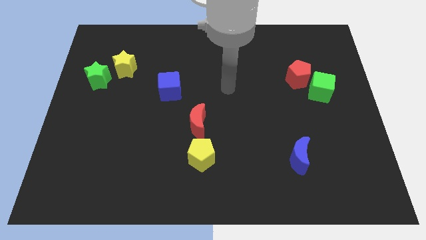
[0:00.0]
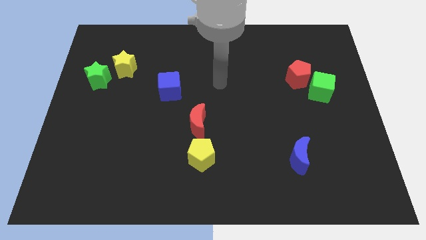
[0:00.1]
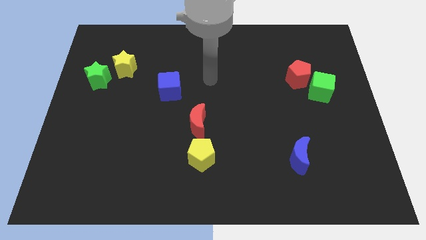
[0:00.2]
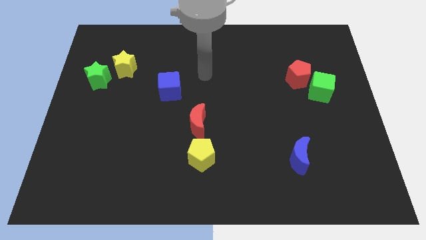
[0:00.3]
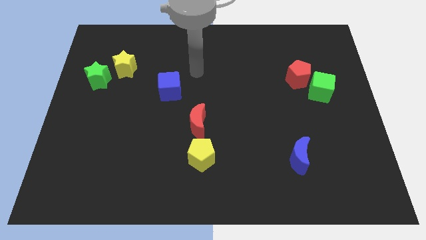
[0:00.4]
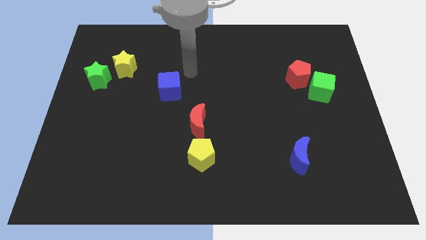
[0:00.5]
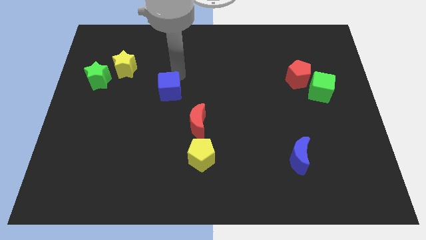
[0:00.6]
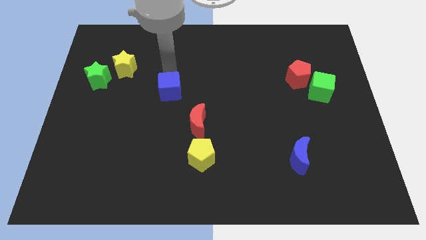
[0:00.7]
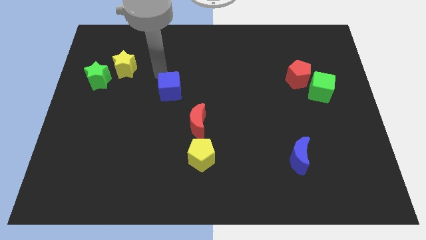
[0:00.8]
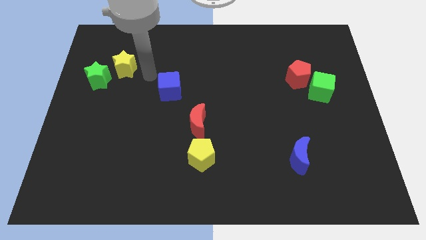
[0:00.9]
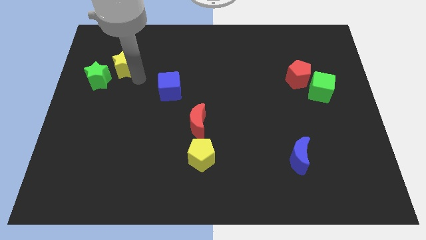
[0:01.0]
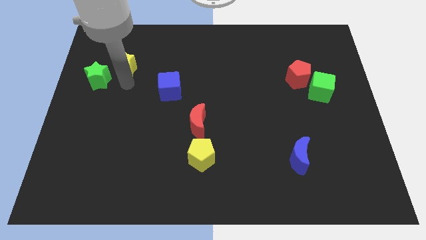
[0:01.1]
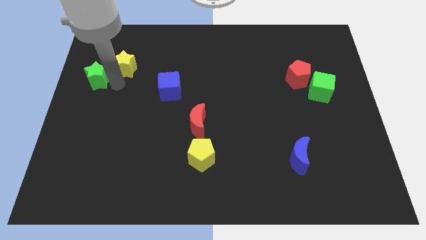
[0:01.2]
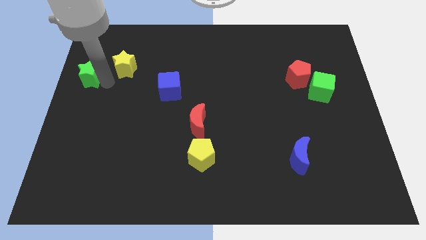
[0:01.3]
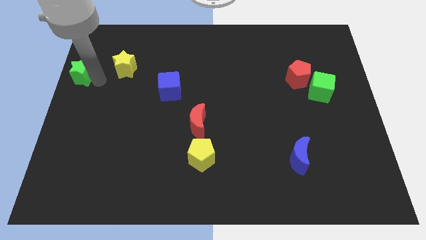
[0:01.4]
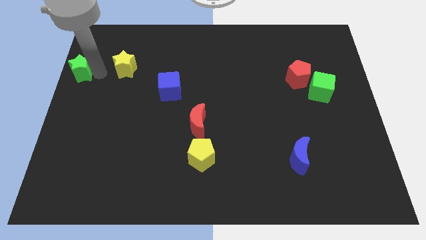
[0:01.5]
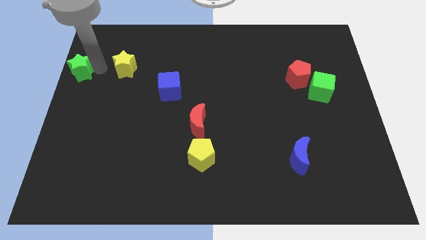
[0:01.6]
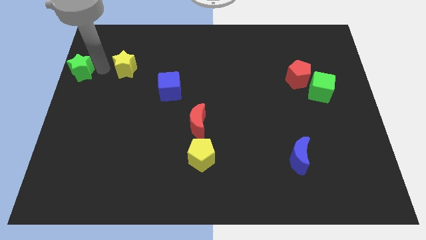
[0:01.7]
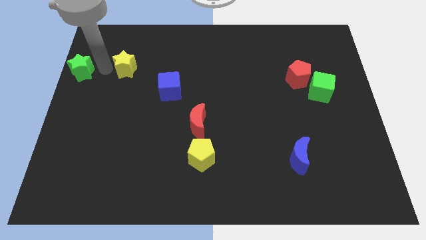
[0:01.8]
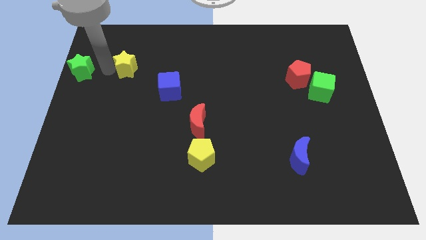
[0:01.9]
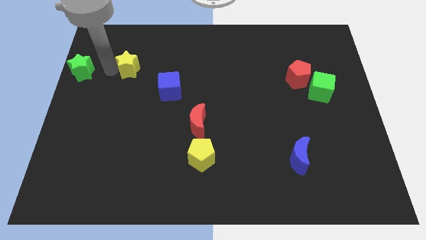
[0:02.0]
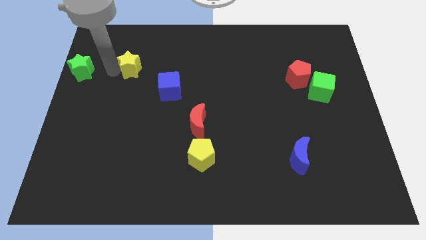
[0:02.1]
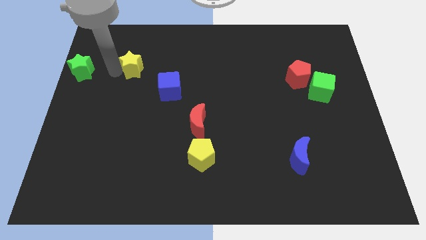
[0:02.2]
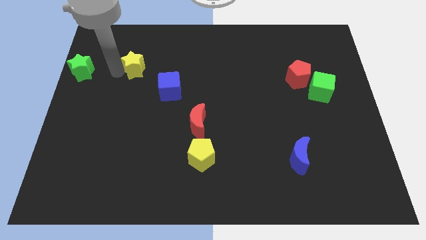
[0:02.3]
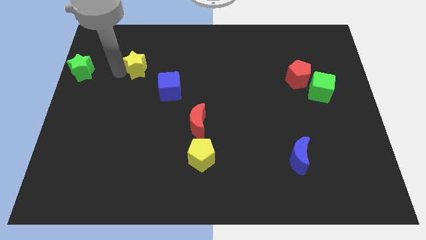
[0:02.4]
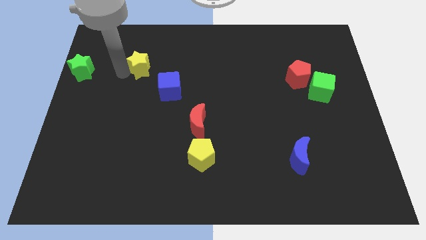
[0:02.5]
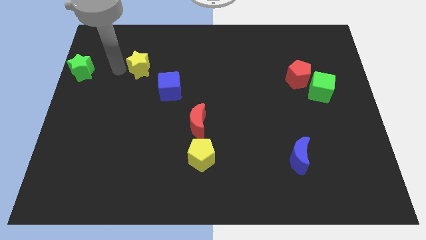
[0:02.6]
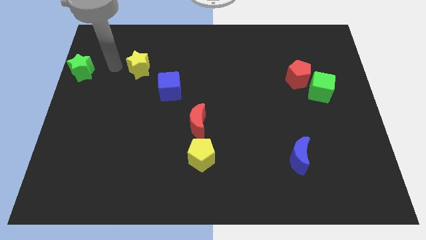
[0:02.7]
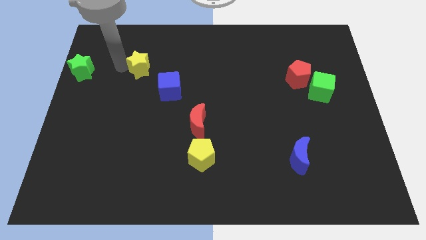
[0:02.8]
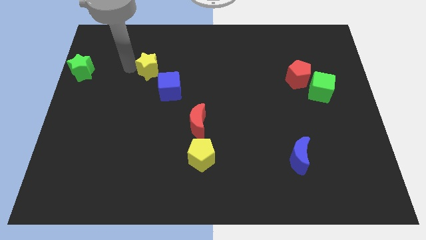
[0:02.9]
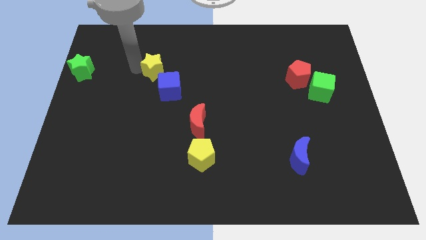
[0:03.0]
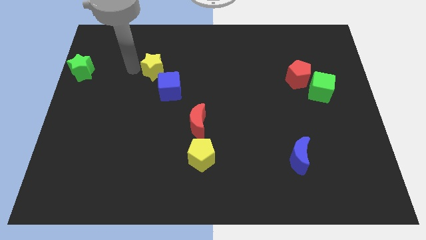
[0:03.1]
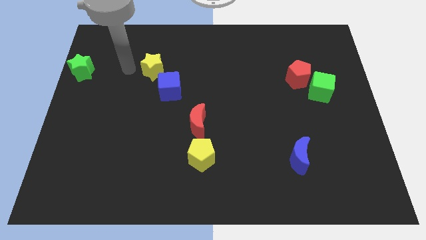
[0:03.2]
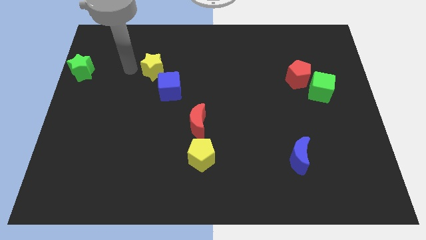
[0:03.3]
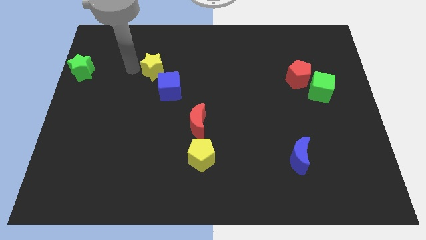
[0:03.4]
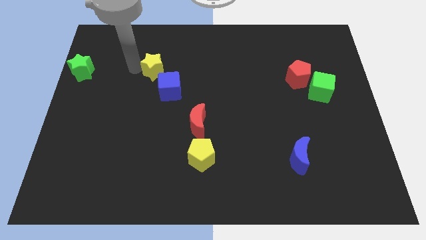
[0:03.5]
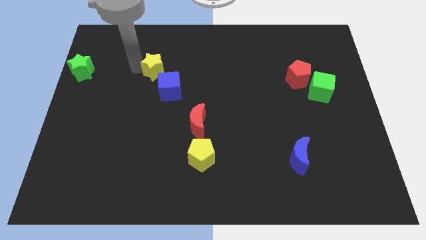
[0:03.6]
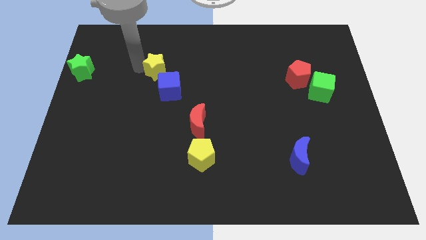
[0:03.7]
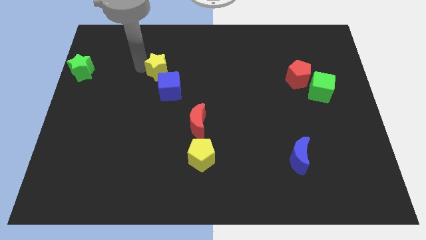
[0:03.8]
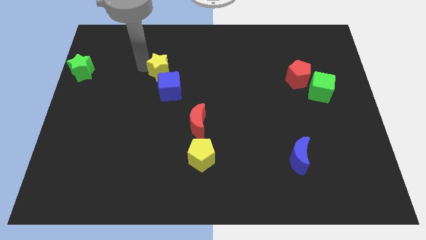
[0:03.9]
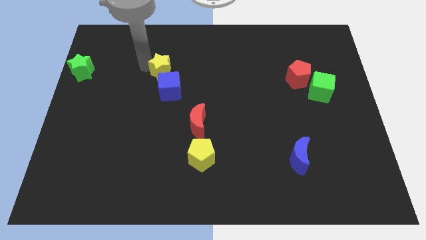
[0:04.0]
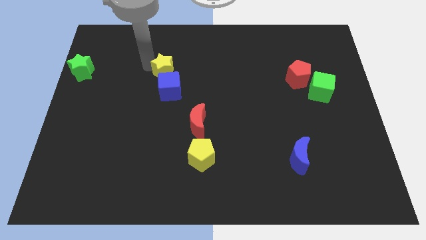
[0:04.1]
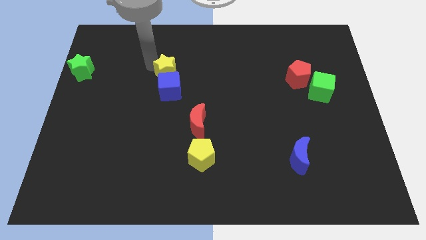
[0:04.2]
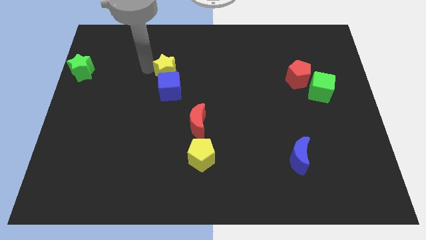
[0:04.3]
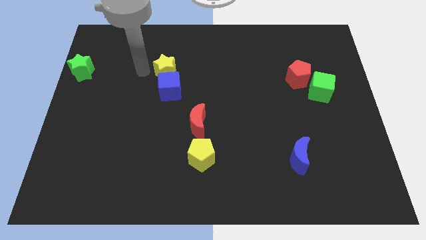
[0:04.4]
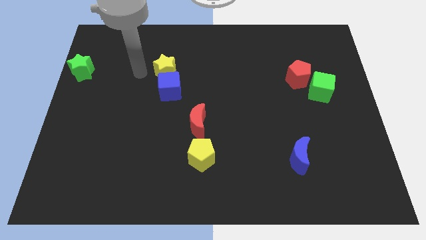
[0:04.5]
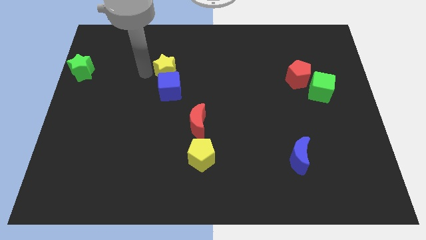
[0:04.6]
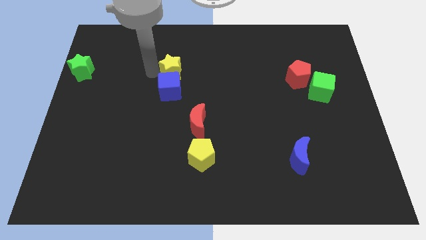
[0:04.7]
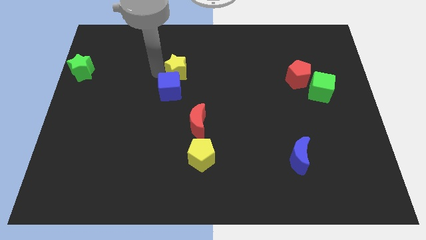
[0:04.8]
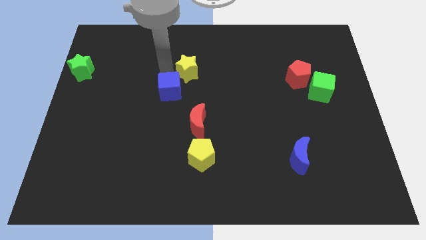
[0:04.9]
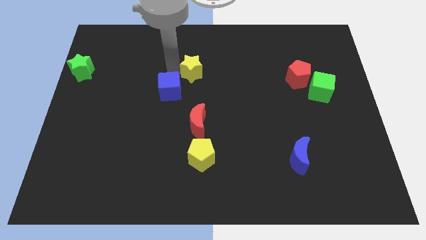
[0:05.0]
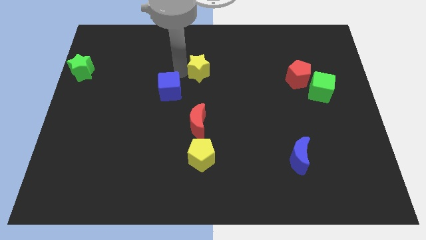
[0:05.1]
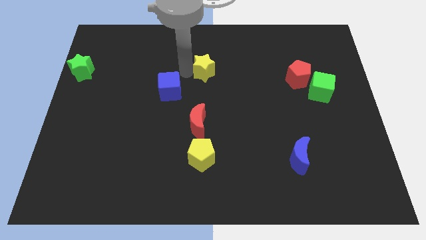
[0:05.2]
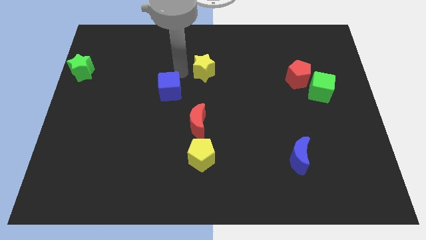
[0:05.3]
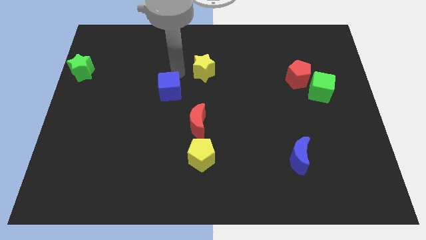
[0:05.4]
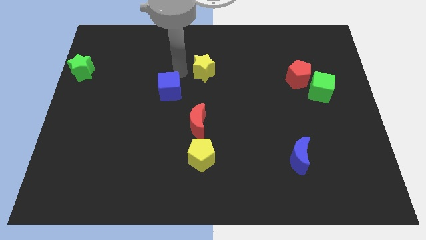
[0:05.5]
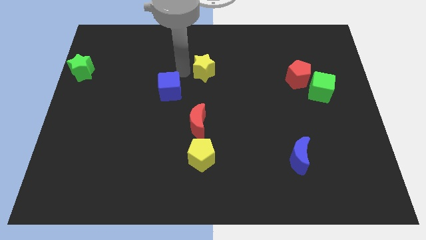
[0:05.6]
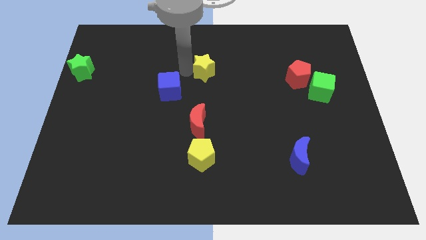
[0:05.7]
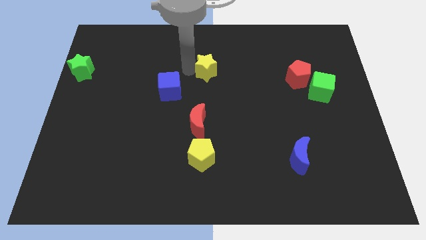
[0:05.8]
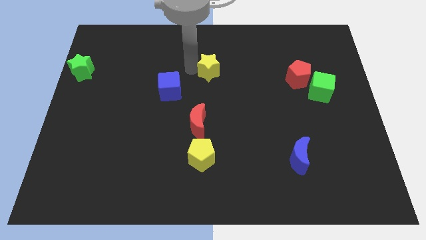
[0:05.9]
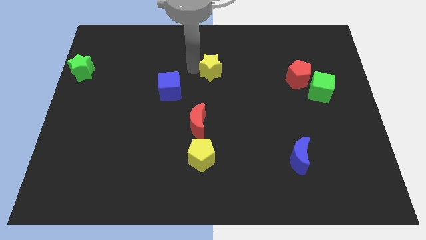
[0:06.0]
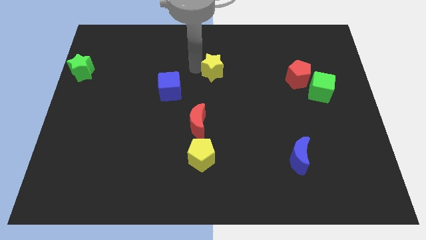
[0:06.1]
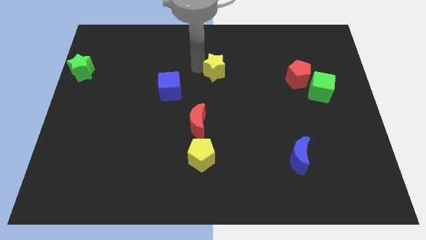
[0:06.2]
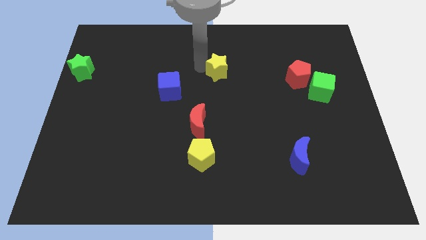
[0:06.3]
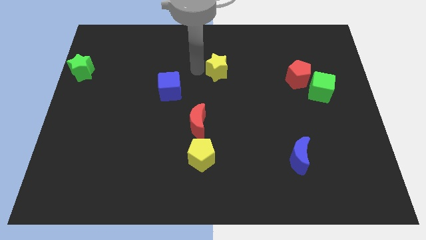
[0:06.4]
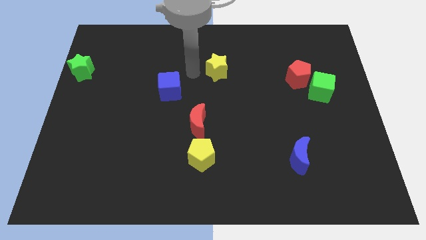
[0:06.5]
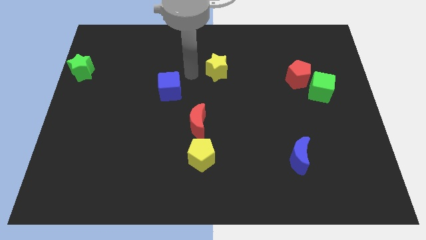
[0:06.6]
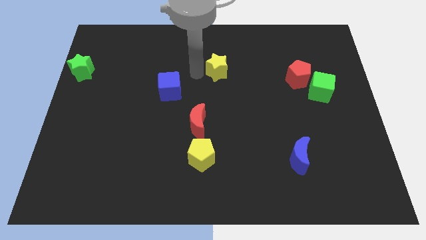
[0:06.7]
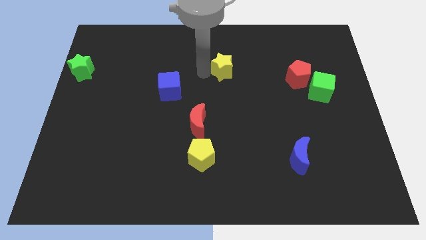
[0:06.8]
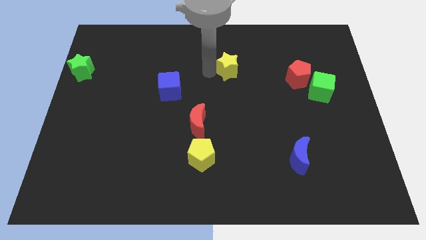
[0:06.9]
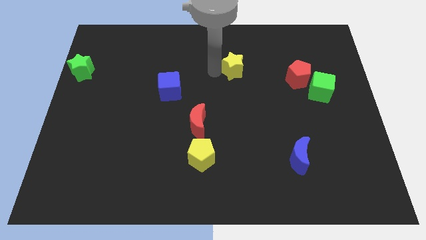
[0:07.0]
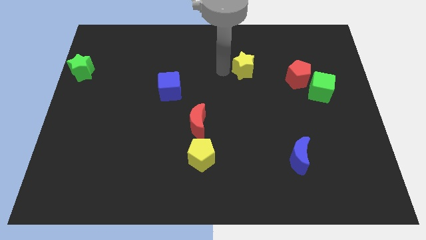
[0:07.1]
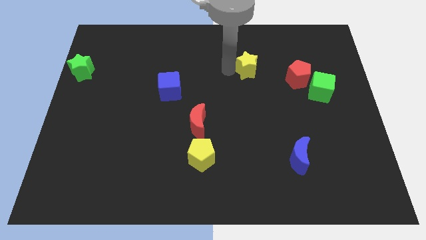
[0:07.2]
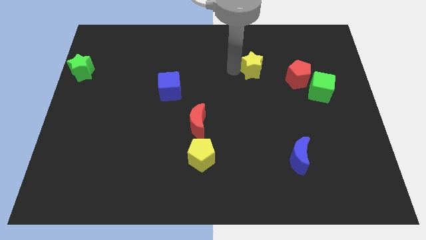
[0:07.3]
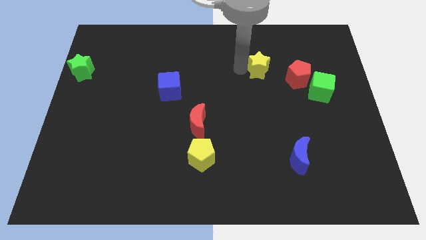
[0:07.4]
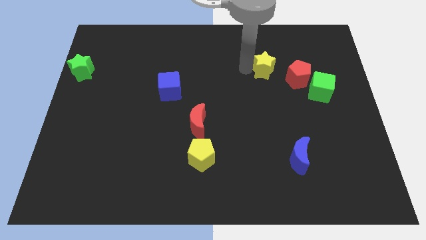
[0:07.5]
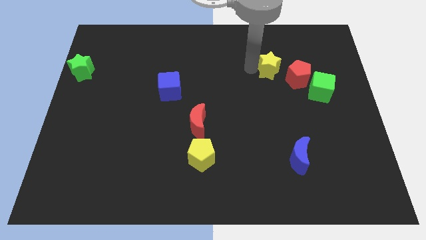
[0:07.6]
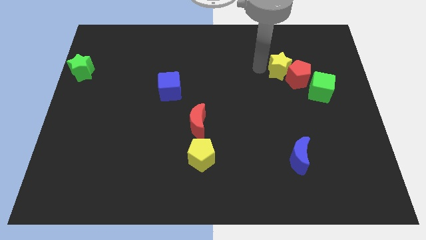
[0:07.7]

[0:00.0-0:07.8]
move the yellow star towards the red pentagon
